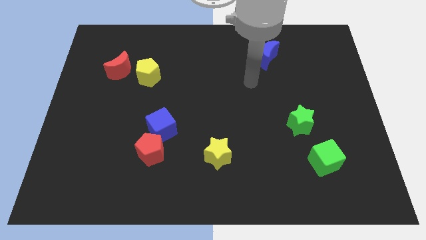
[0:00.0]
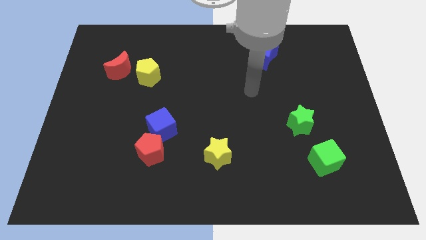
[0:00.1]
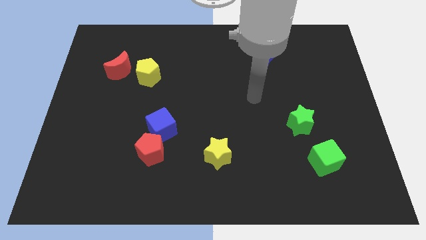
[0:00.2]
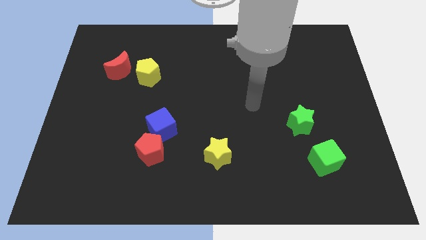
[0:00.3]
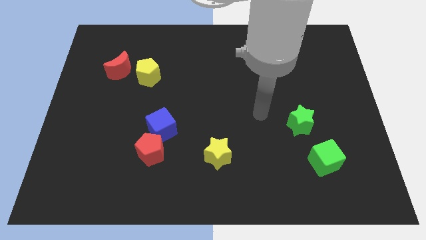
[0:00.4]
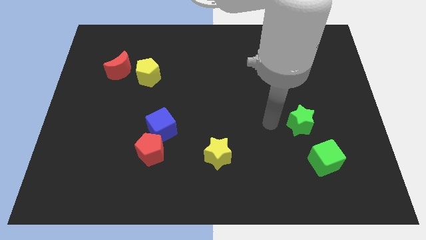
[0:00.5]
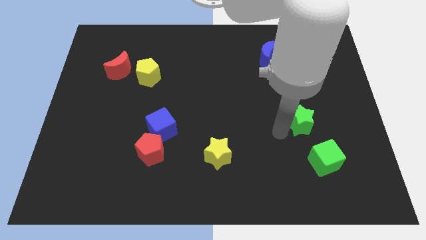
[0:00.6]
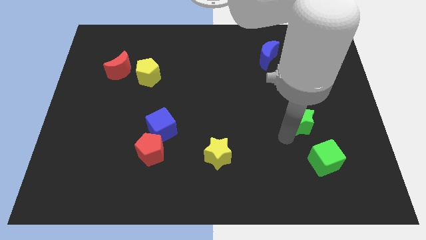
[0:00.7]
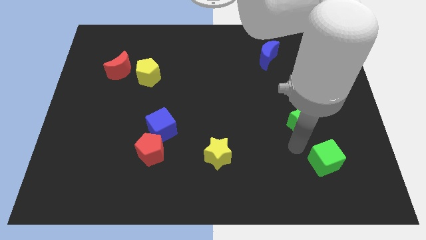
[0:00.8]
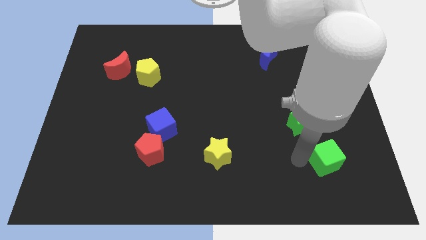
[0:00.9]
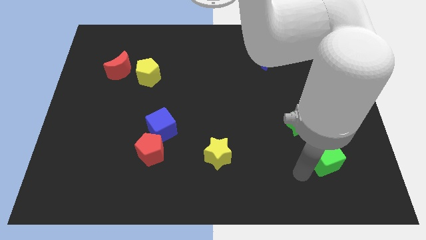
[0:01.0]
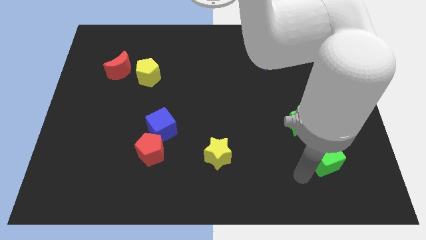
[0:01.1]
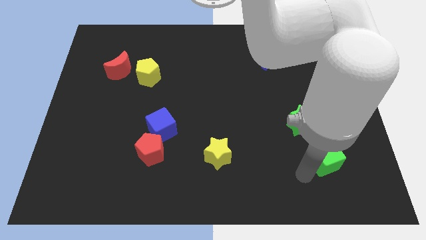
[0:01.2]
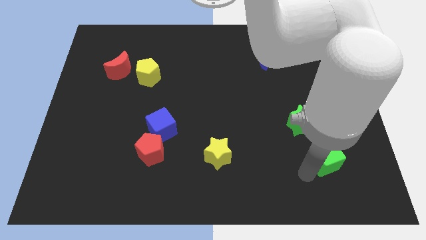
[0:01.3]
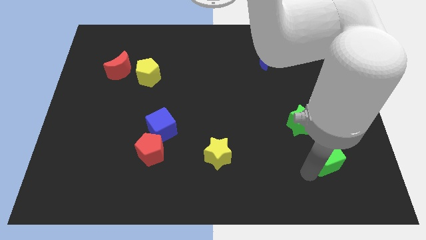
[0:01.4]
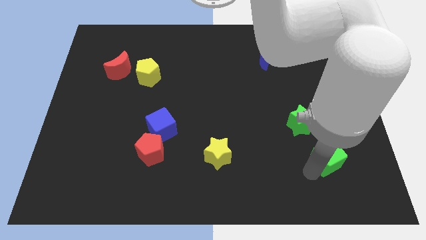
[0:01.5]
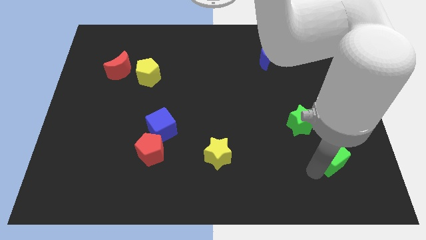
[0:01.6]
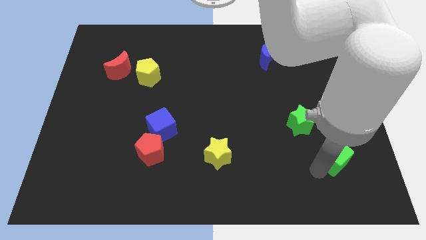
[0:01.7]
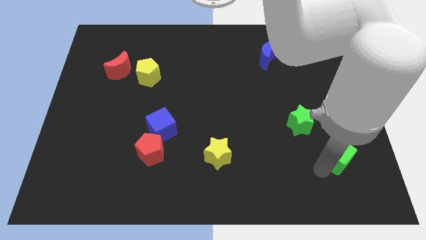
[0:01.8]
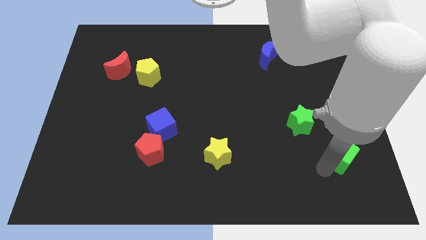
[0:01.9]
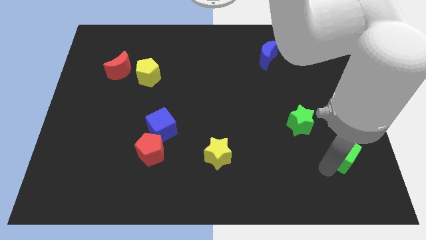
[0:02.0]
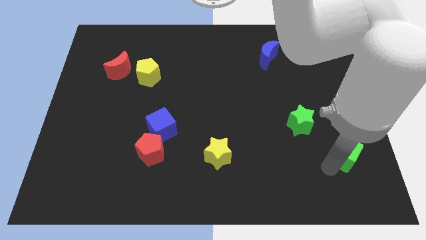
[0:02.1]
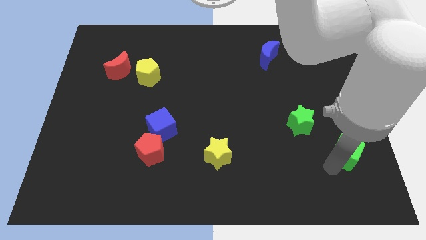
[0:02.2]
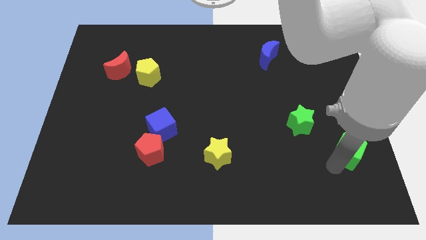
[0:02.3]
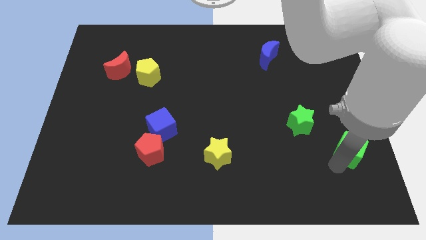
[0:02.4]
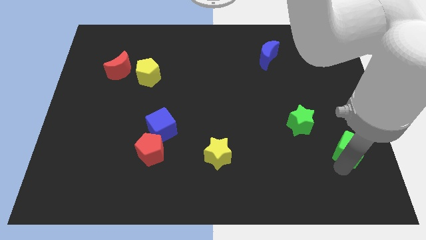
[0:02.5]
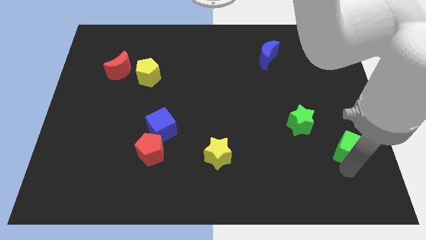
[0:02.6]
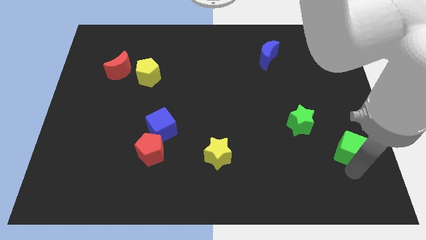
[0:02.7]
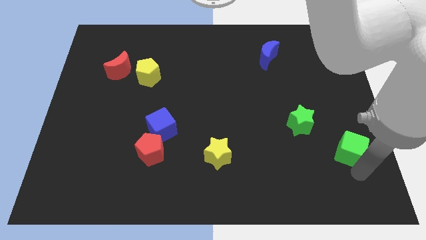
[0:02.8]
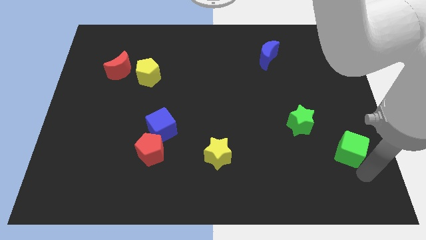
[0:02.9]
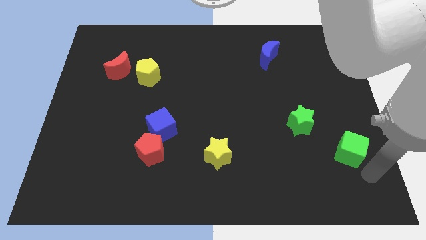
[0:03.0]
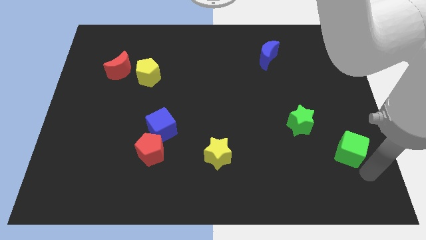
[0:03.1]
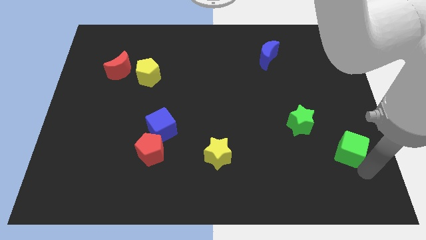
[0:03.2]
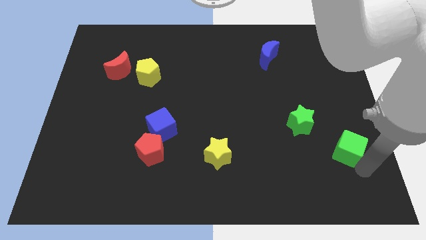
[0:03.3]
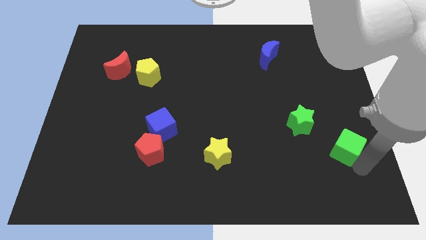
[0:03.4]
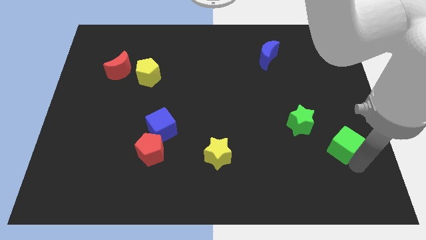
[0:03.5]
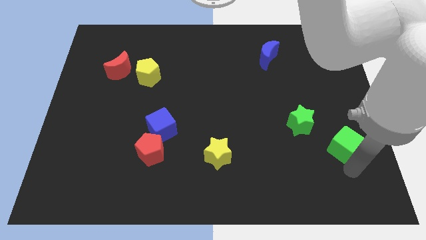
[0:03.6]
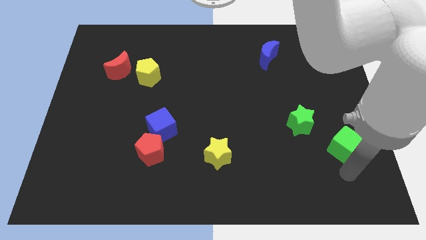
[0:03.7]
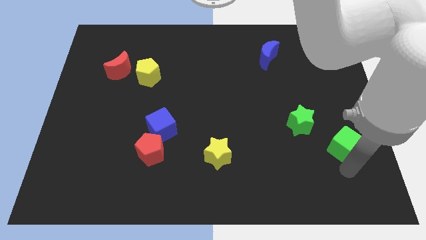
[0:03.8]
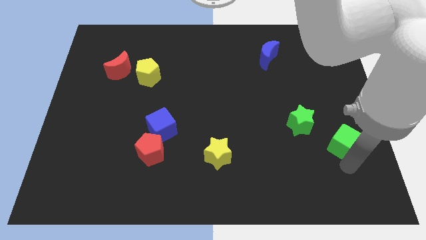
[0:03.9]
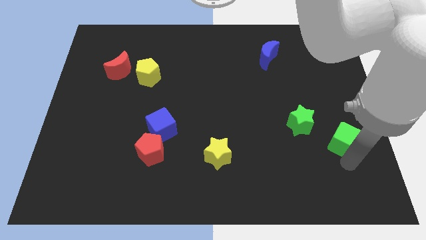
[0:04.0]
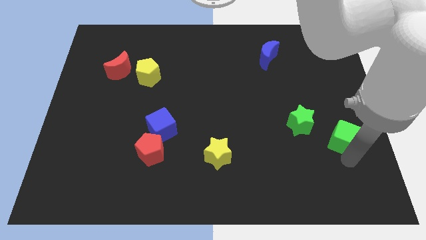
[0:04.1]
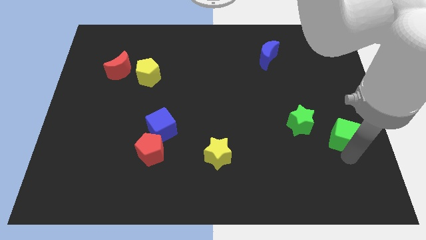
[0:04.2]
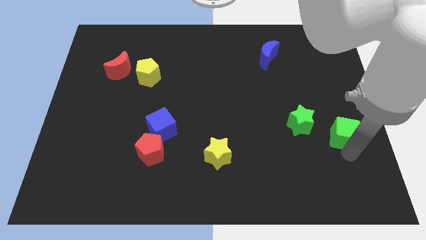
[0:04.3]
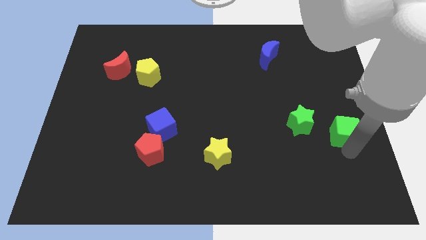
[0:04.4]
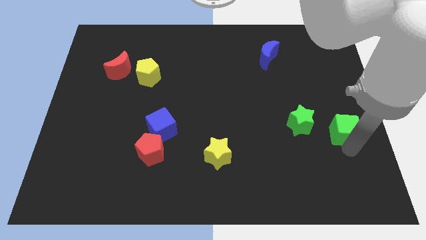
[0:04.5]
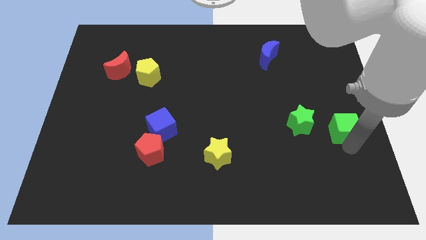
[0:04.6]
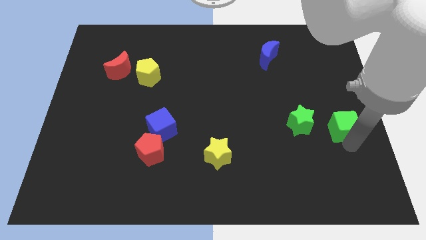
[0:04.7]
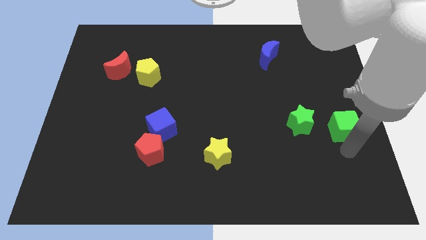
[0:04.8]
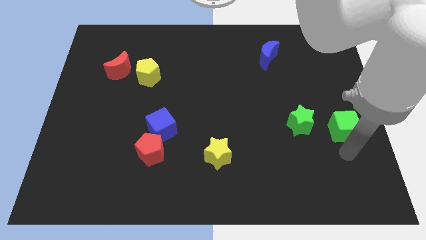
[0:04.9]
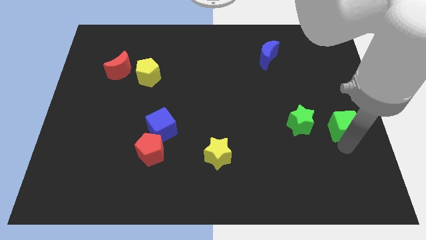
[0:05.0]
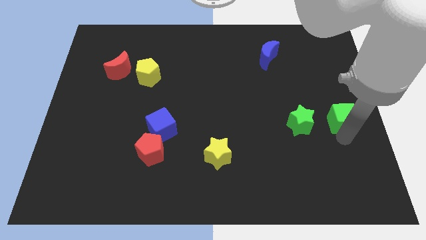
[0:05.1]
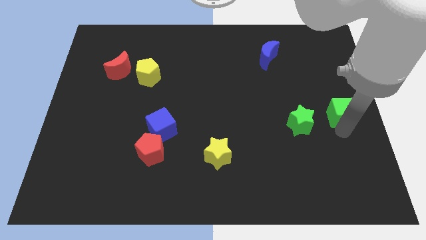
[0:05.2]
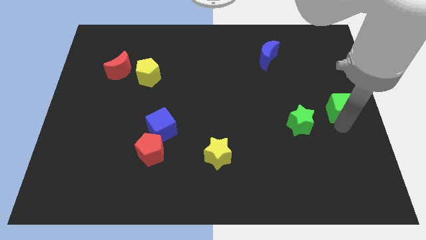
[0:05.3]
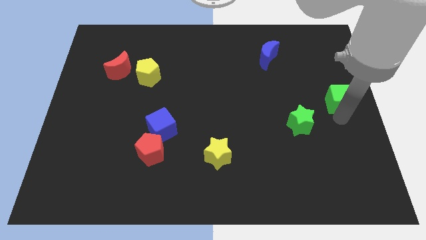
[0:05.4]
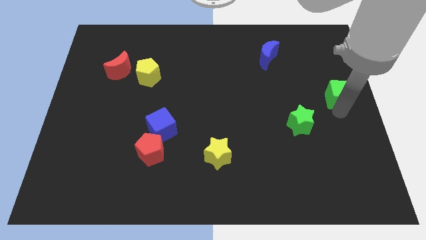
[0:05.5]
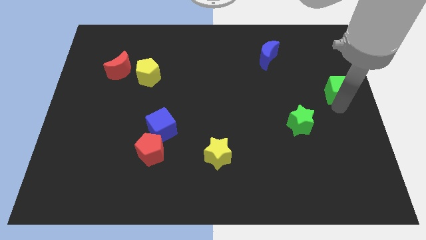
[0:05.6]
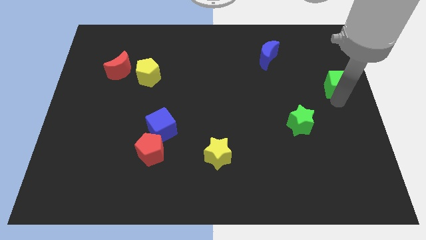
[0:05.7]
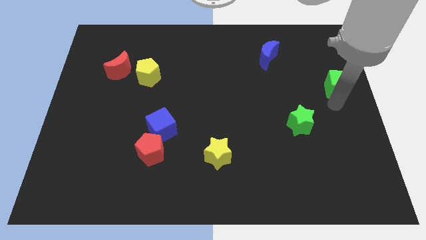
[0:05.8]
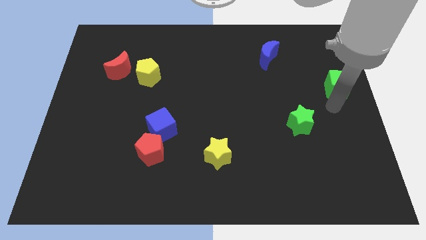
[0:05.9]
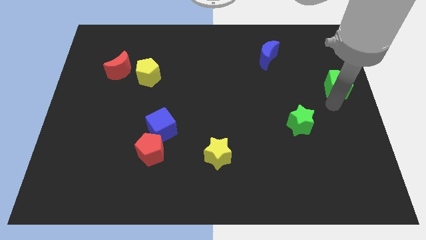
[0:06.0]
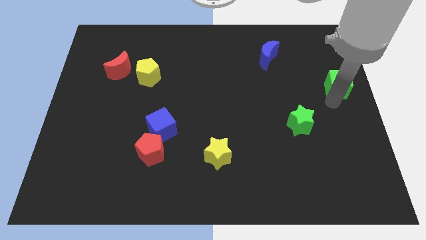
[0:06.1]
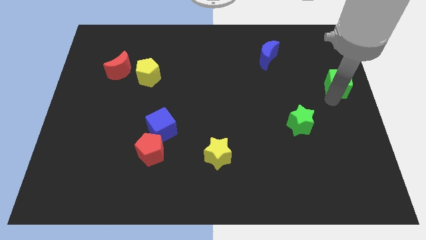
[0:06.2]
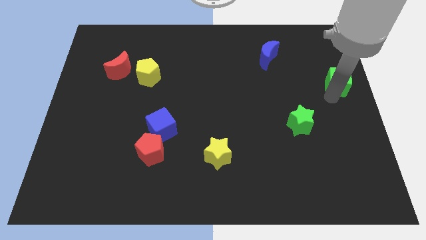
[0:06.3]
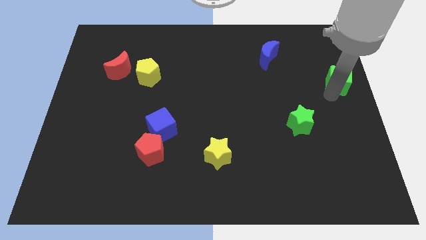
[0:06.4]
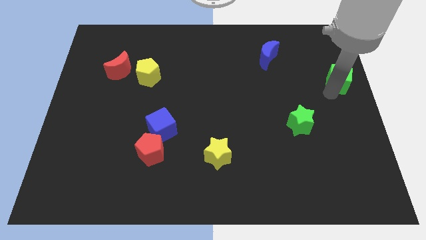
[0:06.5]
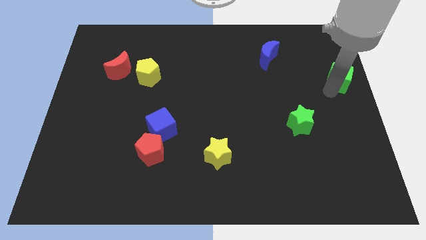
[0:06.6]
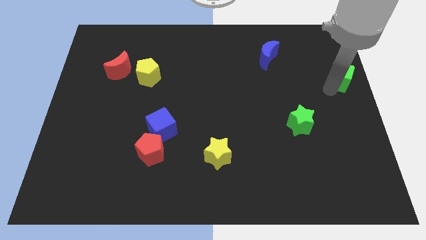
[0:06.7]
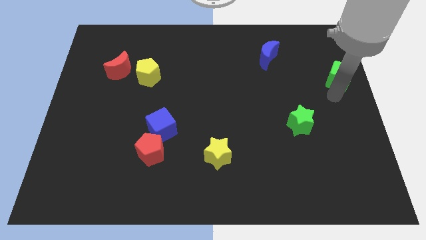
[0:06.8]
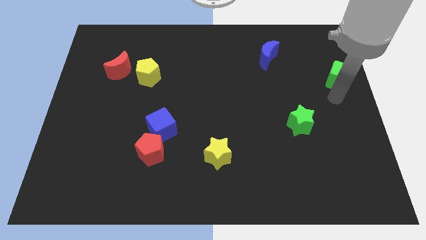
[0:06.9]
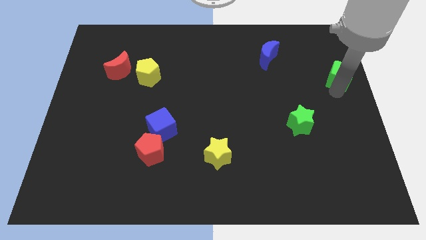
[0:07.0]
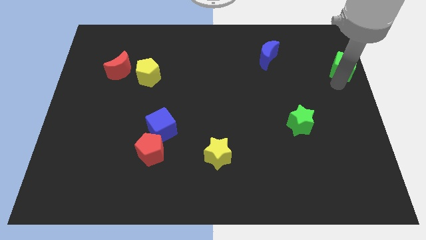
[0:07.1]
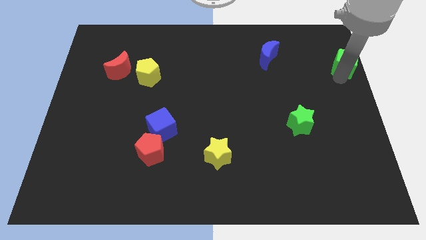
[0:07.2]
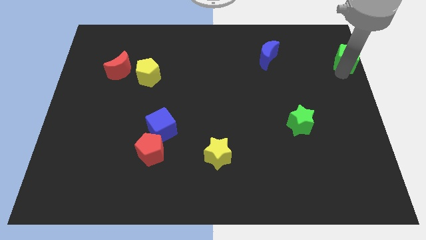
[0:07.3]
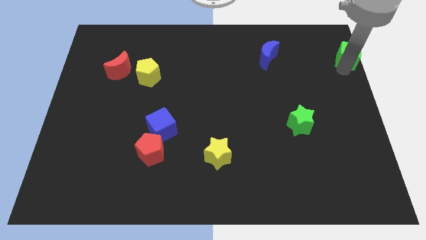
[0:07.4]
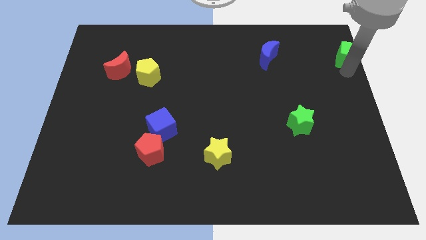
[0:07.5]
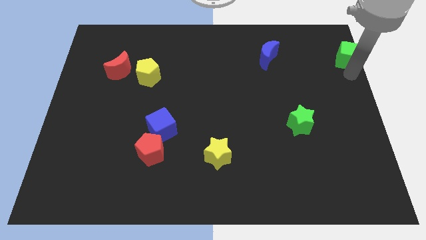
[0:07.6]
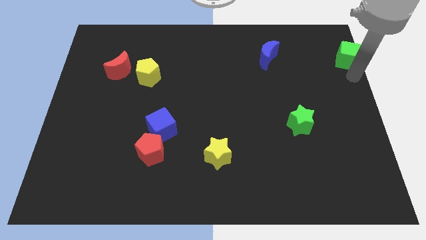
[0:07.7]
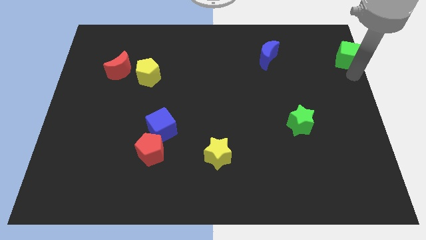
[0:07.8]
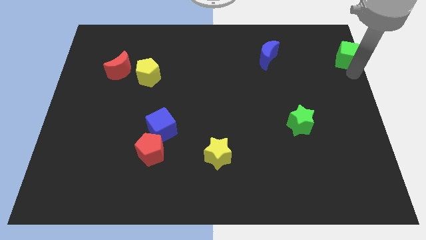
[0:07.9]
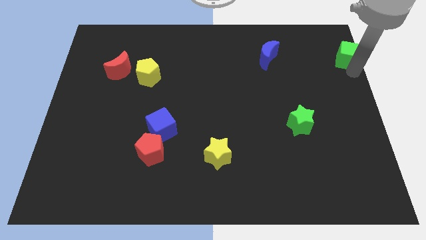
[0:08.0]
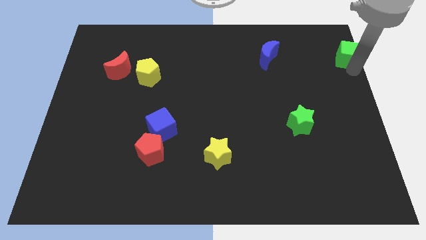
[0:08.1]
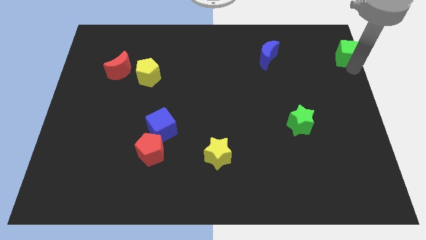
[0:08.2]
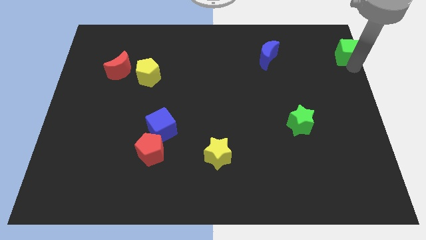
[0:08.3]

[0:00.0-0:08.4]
push the green cube to the upper right corner
